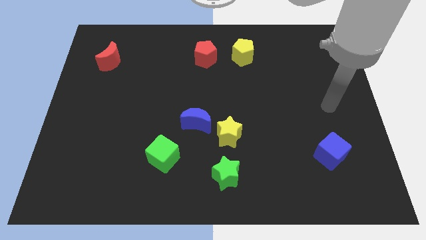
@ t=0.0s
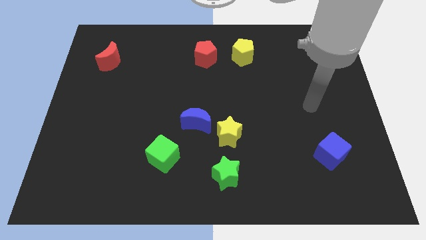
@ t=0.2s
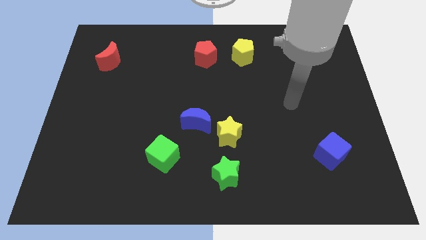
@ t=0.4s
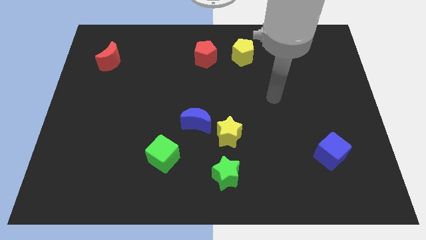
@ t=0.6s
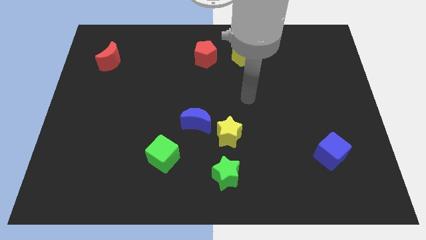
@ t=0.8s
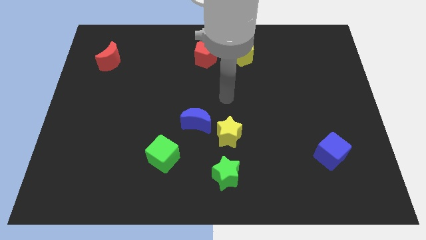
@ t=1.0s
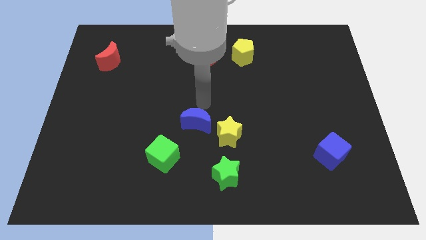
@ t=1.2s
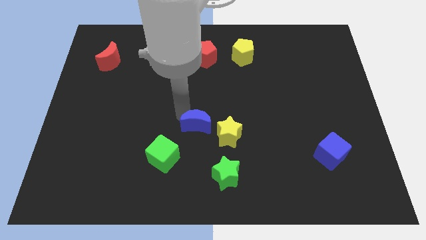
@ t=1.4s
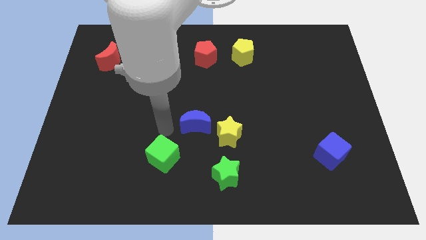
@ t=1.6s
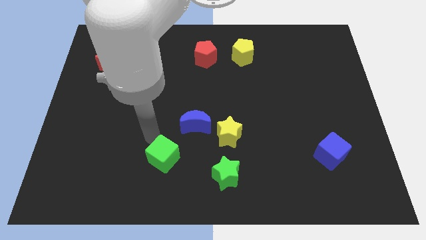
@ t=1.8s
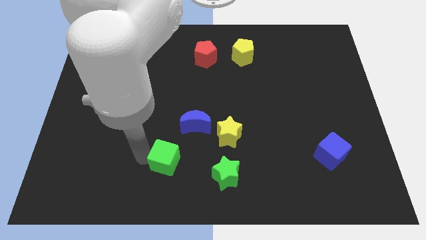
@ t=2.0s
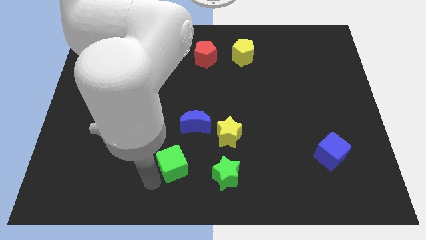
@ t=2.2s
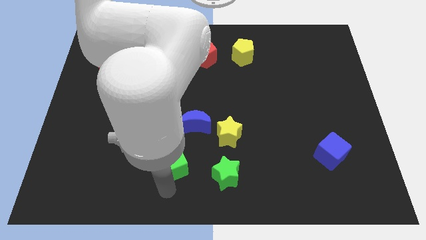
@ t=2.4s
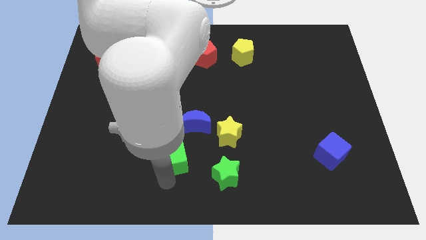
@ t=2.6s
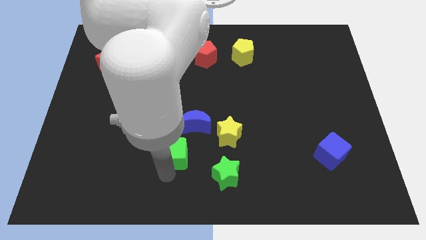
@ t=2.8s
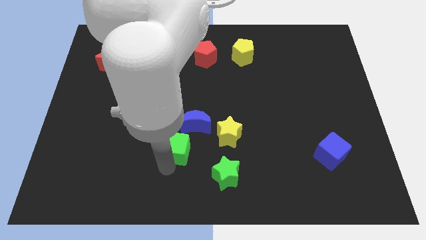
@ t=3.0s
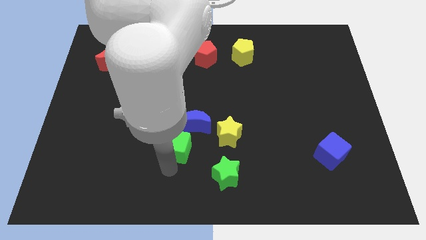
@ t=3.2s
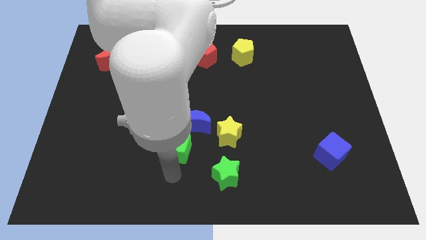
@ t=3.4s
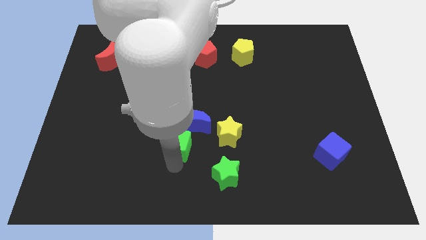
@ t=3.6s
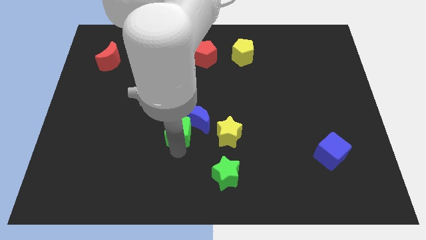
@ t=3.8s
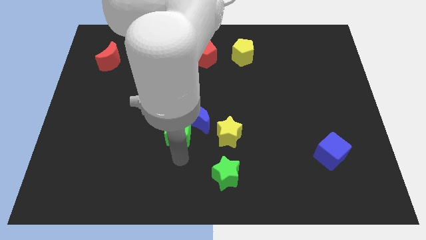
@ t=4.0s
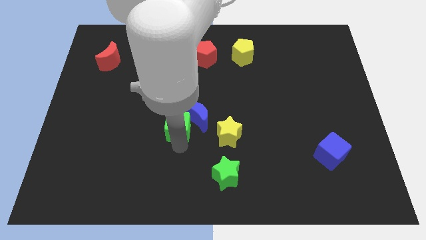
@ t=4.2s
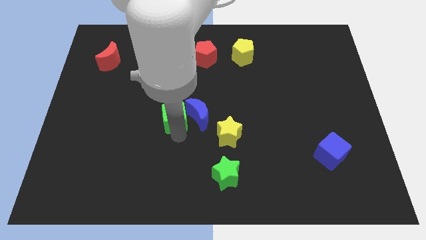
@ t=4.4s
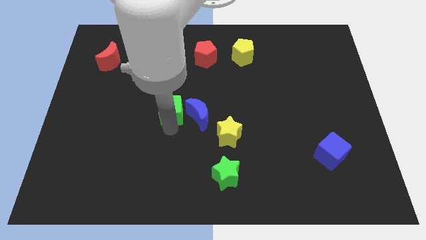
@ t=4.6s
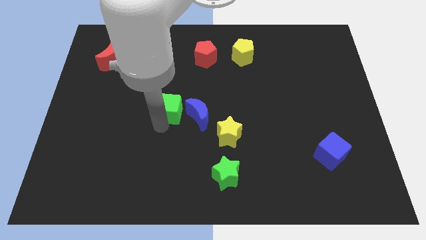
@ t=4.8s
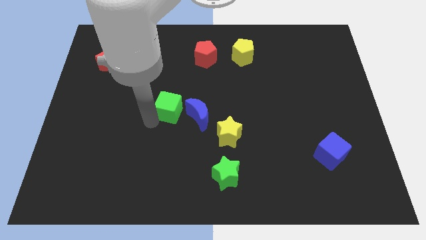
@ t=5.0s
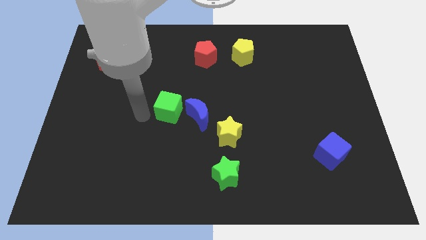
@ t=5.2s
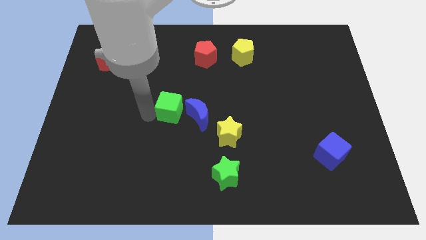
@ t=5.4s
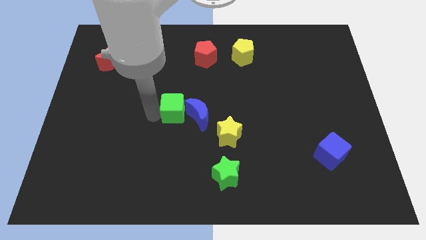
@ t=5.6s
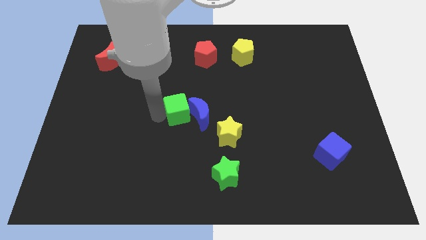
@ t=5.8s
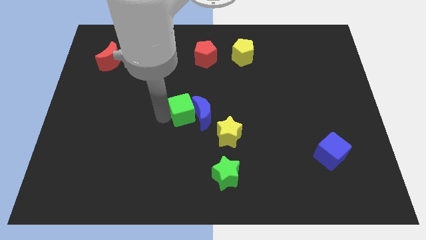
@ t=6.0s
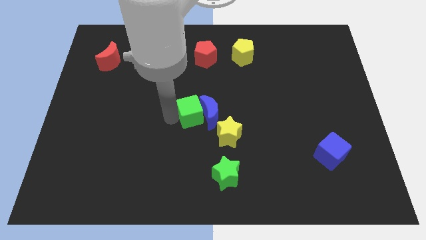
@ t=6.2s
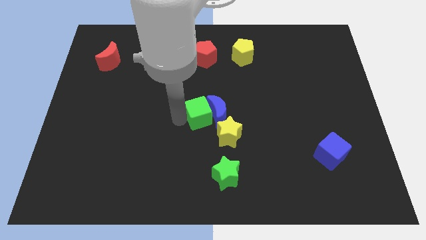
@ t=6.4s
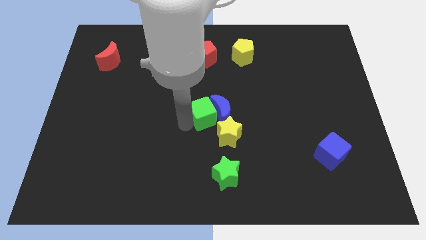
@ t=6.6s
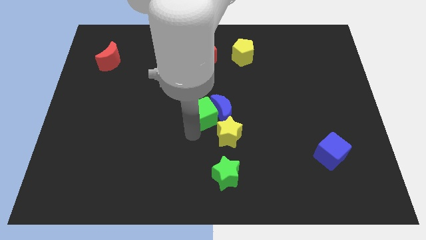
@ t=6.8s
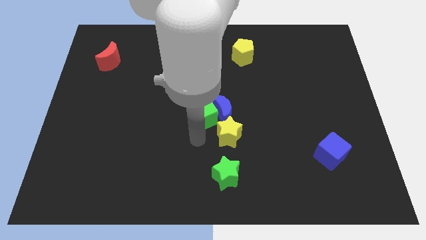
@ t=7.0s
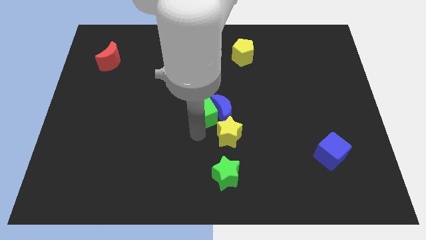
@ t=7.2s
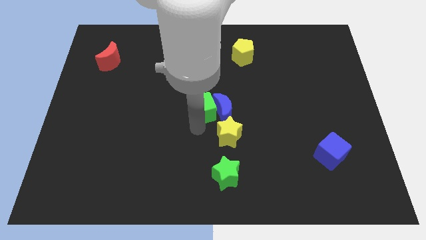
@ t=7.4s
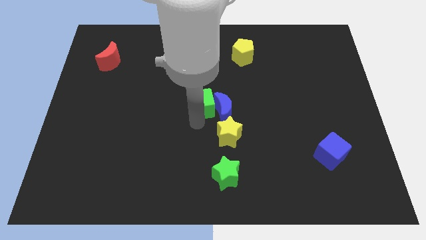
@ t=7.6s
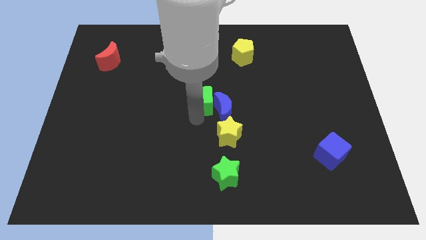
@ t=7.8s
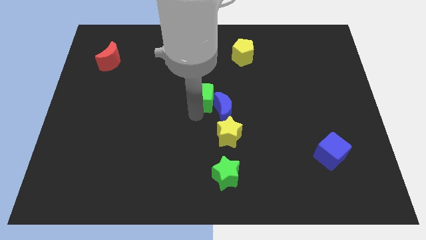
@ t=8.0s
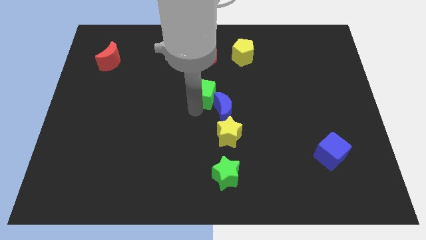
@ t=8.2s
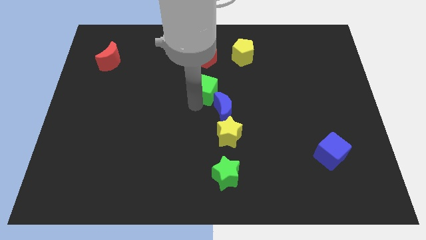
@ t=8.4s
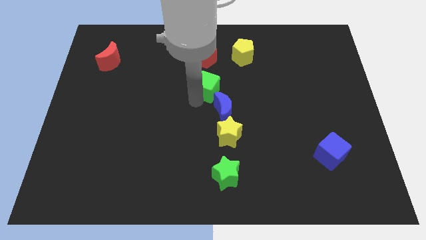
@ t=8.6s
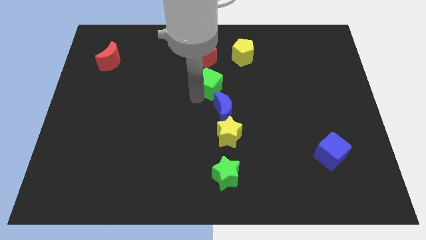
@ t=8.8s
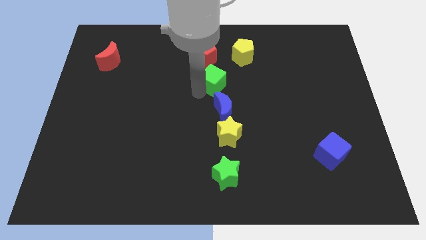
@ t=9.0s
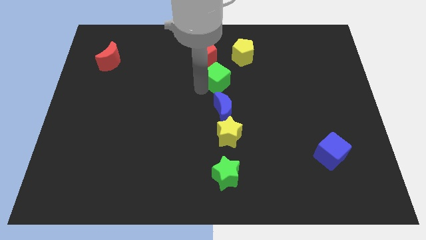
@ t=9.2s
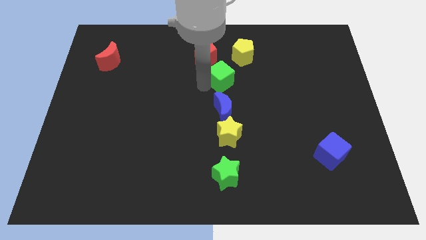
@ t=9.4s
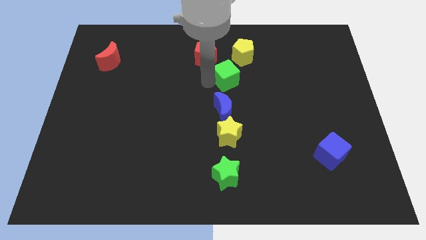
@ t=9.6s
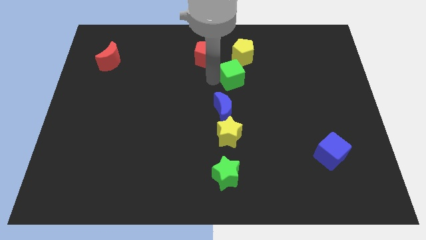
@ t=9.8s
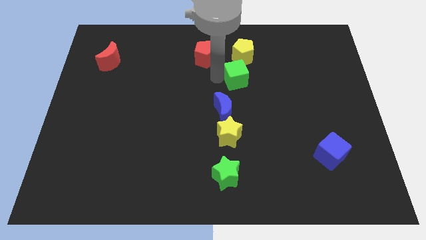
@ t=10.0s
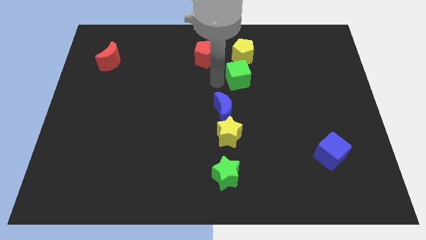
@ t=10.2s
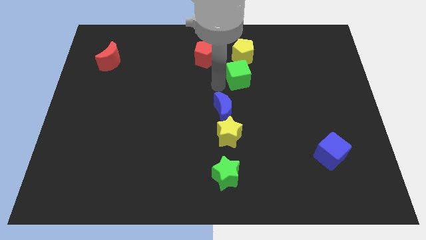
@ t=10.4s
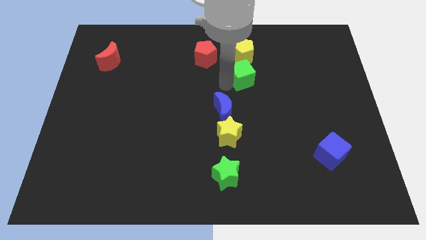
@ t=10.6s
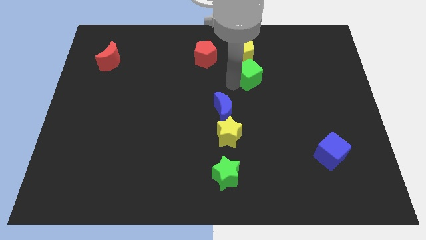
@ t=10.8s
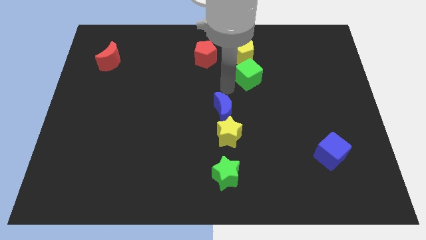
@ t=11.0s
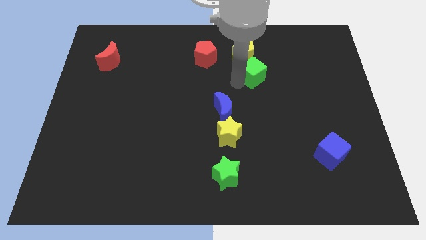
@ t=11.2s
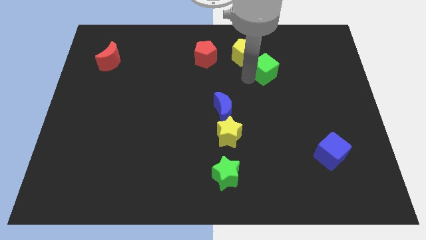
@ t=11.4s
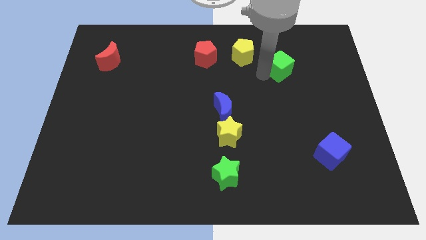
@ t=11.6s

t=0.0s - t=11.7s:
slide the green cube just right of the yellow pentagon

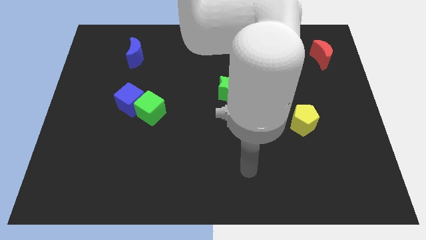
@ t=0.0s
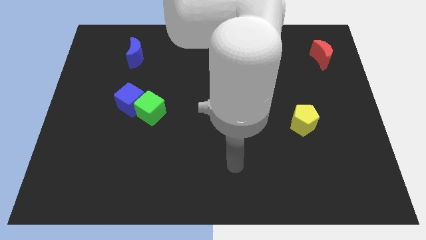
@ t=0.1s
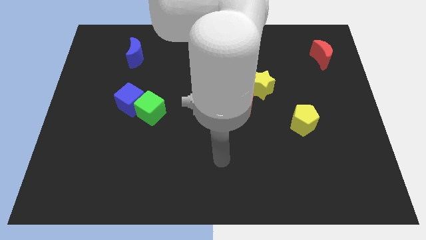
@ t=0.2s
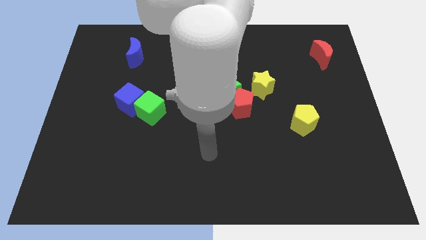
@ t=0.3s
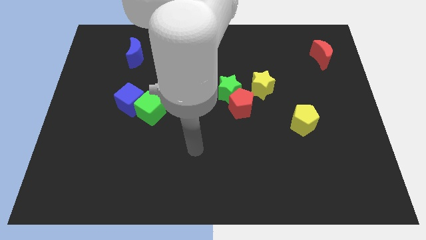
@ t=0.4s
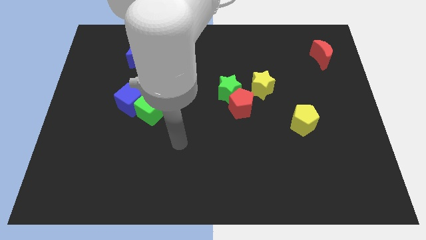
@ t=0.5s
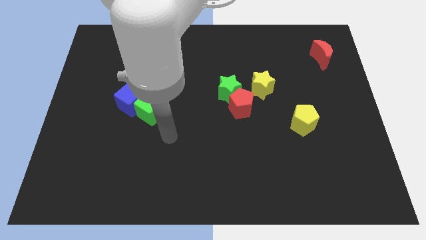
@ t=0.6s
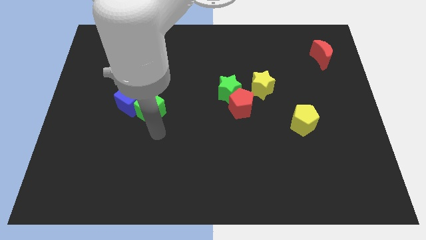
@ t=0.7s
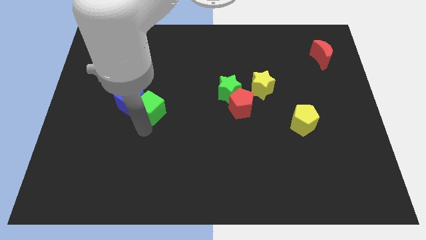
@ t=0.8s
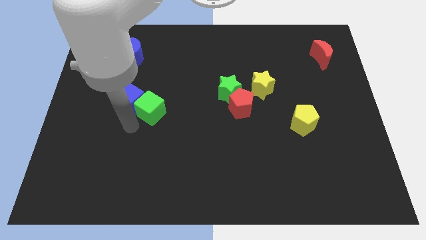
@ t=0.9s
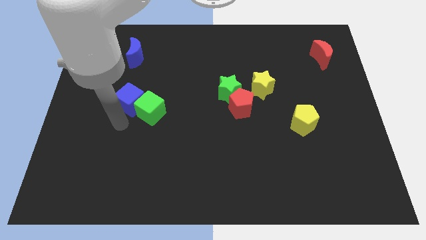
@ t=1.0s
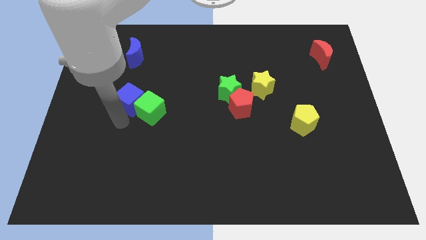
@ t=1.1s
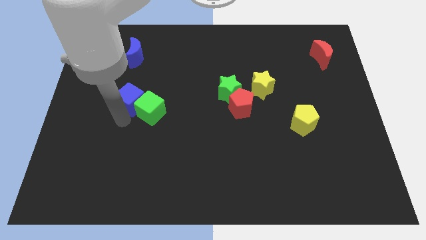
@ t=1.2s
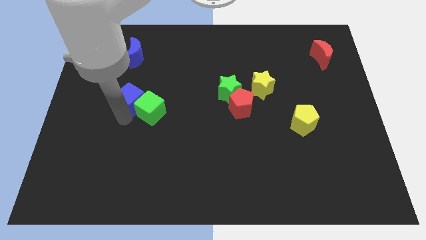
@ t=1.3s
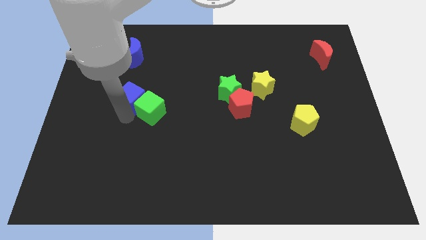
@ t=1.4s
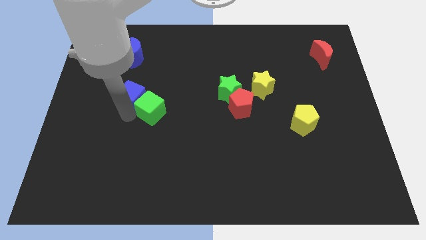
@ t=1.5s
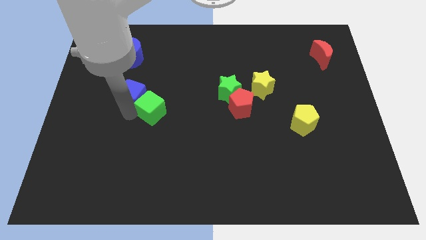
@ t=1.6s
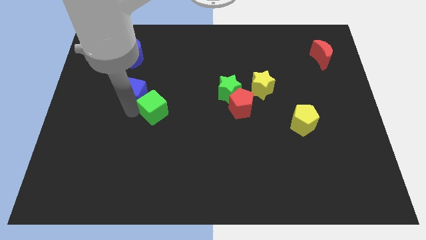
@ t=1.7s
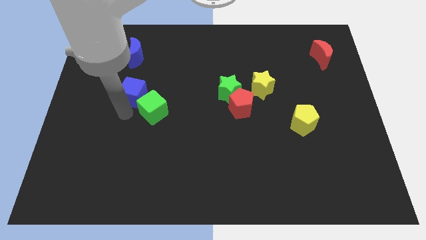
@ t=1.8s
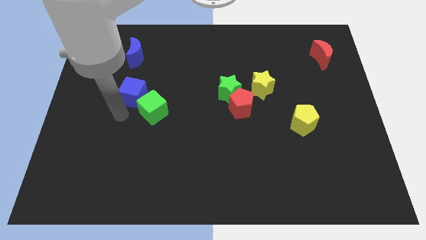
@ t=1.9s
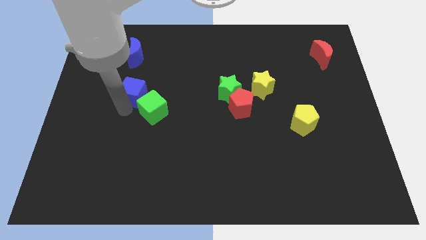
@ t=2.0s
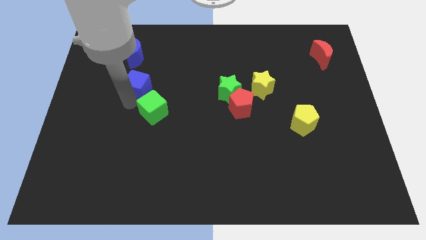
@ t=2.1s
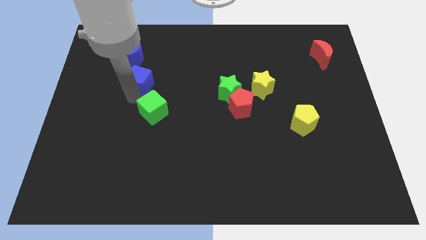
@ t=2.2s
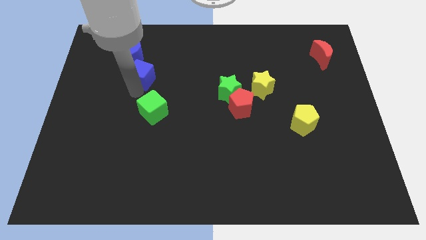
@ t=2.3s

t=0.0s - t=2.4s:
push the blue cube diagonally down and to the right of the blue moon
